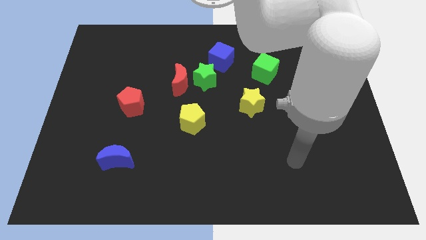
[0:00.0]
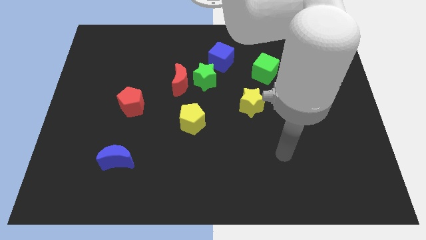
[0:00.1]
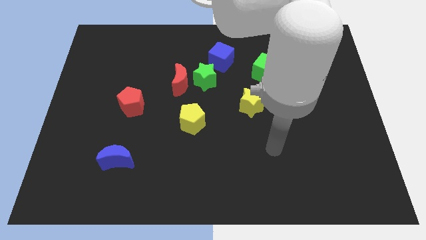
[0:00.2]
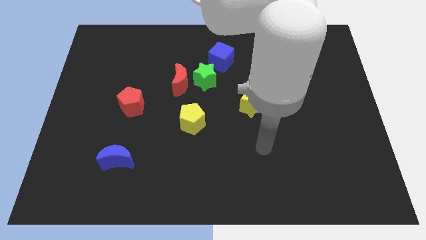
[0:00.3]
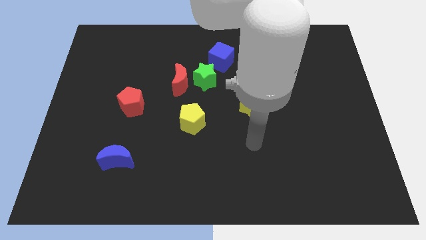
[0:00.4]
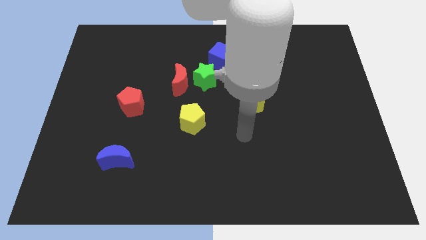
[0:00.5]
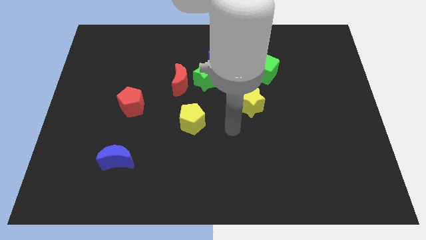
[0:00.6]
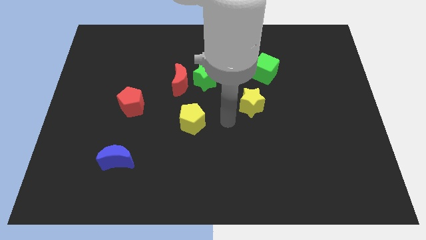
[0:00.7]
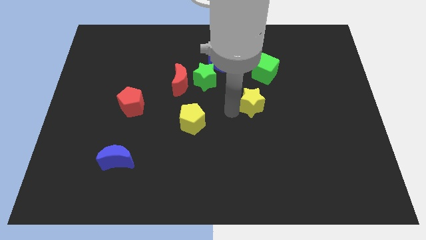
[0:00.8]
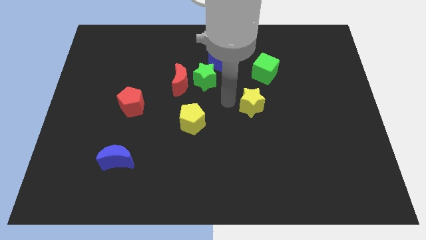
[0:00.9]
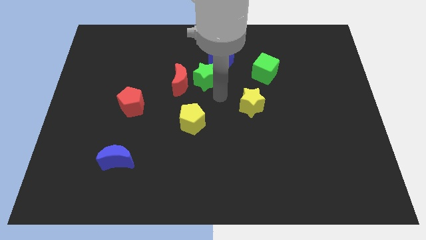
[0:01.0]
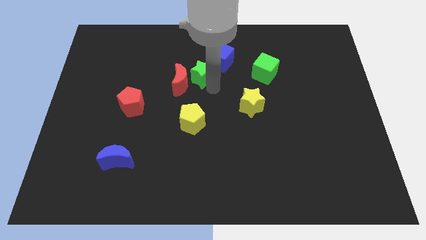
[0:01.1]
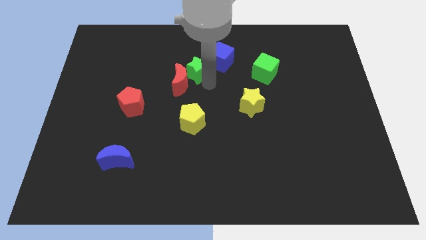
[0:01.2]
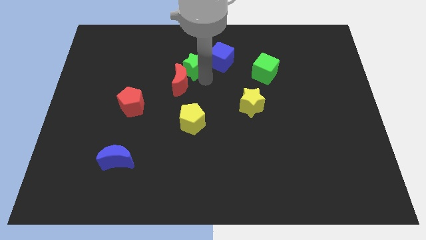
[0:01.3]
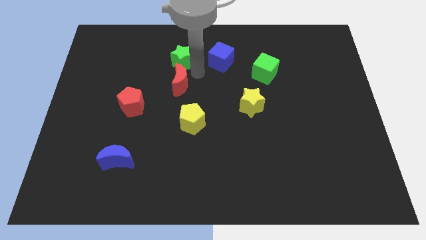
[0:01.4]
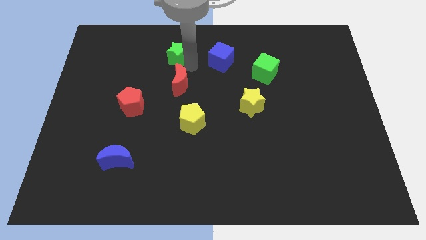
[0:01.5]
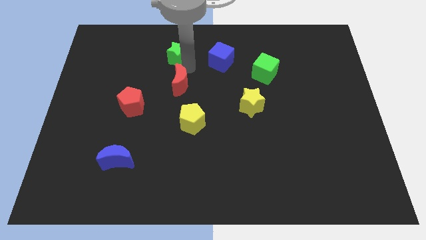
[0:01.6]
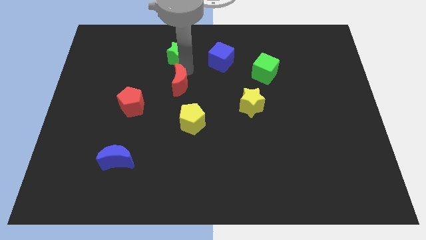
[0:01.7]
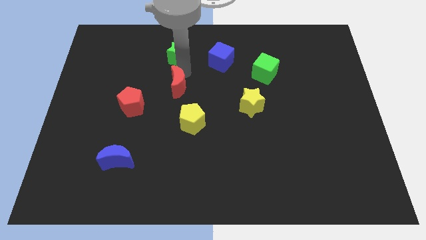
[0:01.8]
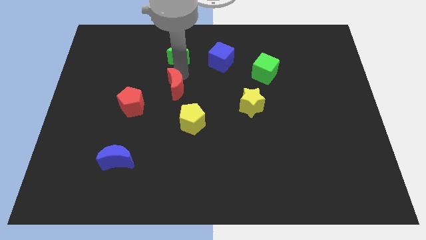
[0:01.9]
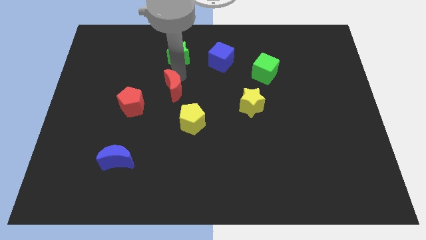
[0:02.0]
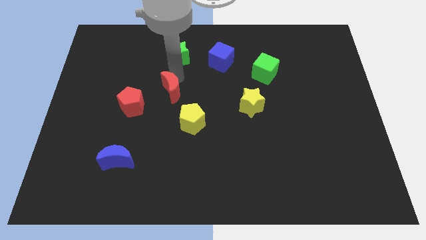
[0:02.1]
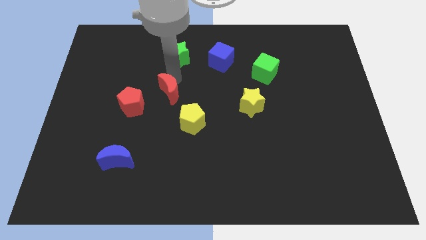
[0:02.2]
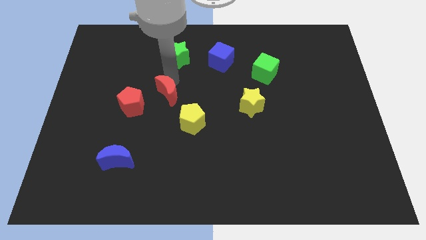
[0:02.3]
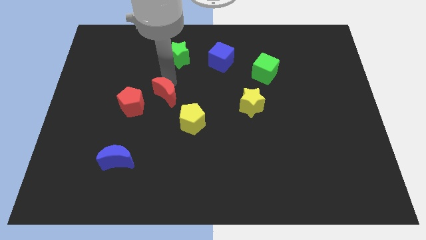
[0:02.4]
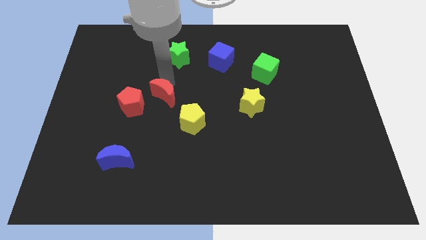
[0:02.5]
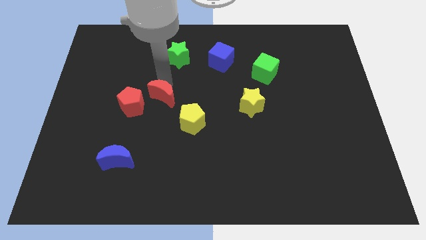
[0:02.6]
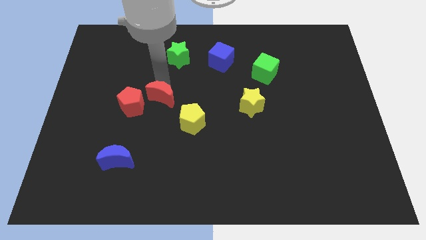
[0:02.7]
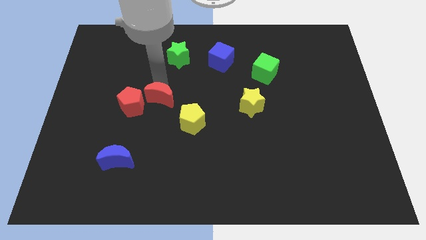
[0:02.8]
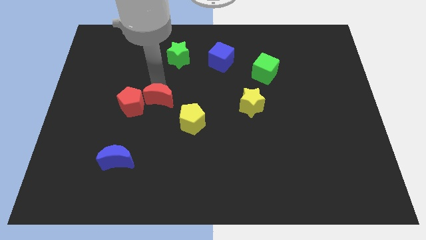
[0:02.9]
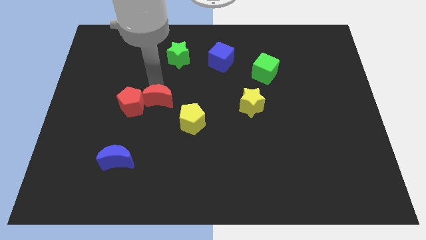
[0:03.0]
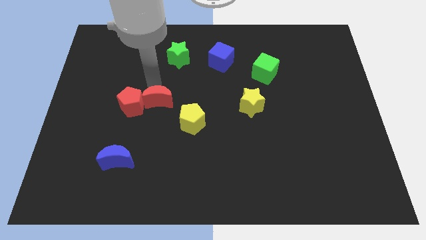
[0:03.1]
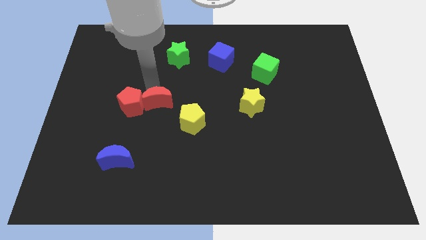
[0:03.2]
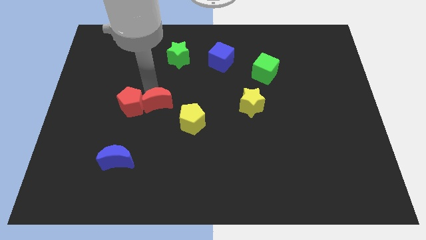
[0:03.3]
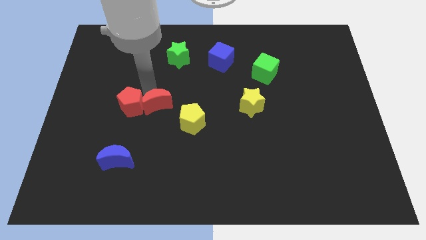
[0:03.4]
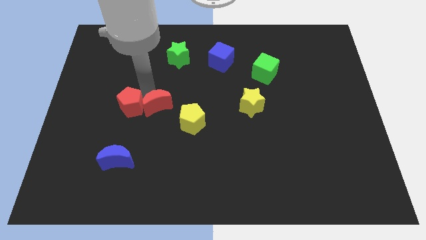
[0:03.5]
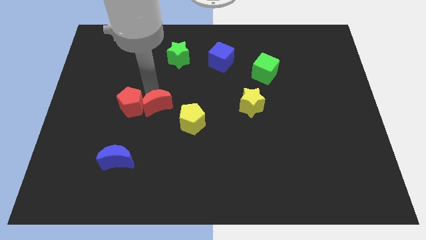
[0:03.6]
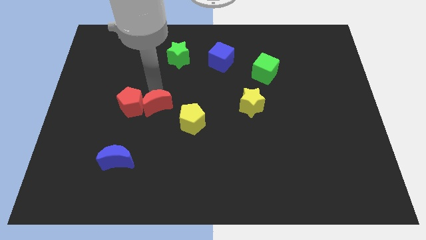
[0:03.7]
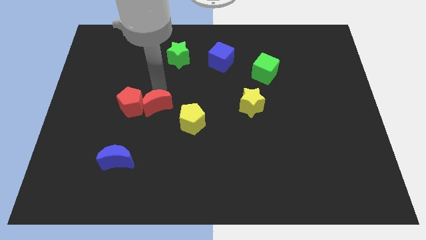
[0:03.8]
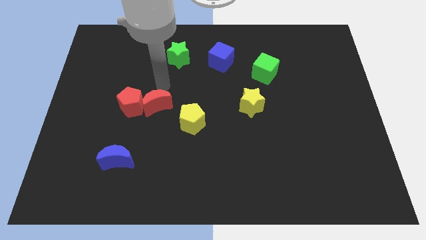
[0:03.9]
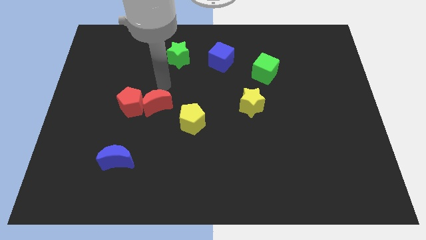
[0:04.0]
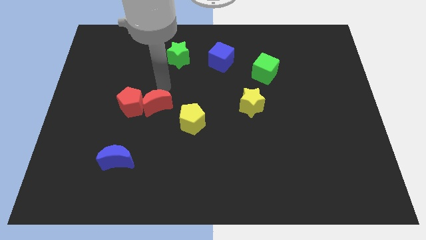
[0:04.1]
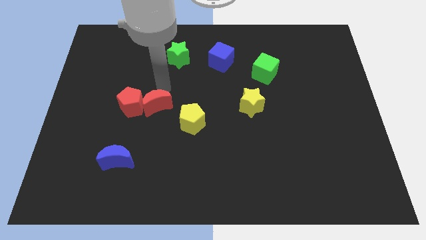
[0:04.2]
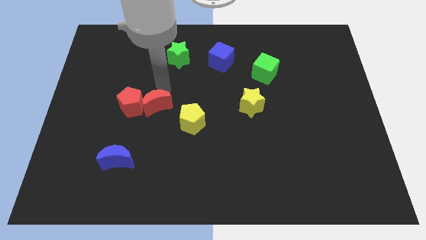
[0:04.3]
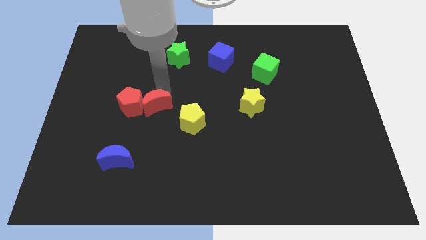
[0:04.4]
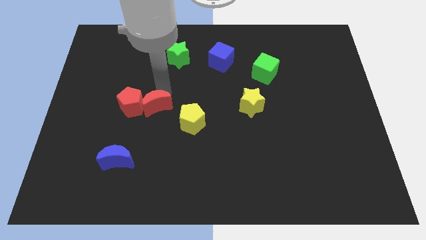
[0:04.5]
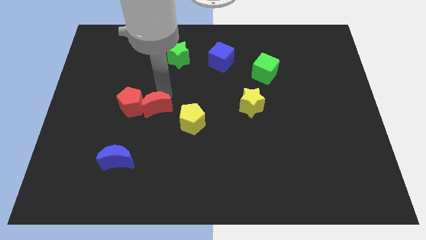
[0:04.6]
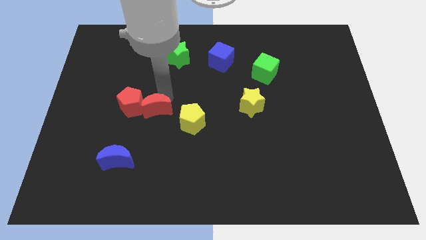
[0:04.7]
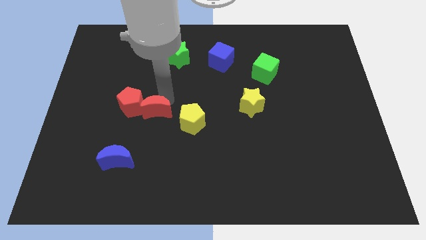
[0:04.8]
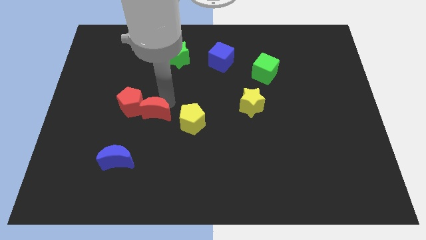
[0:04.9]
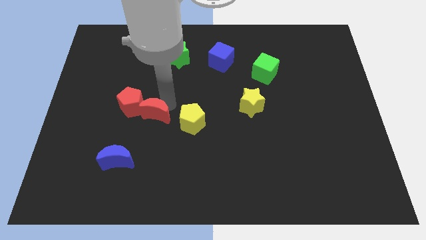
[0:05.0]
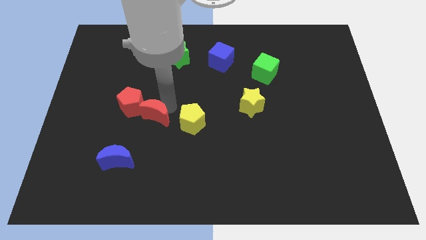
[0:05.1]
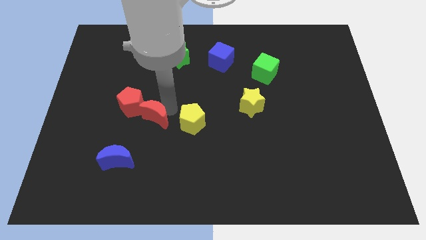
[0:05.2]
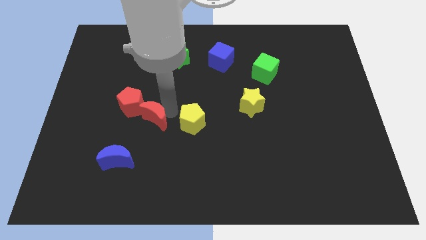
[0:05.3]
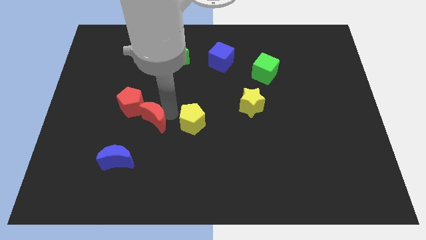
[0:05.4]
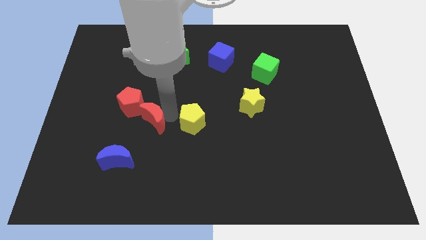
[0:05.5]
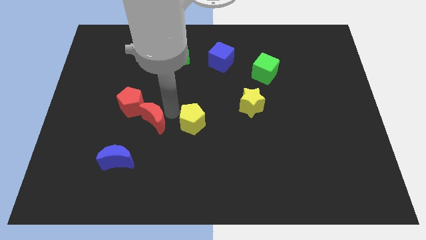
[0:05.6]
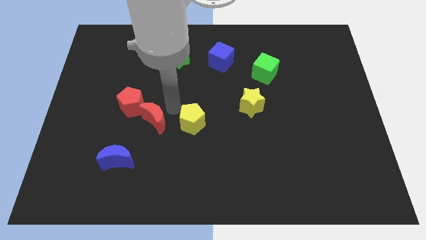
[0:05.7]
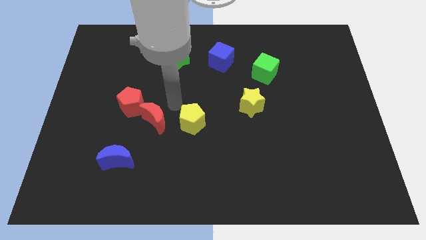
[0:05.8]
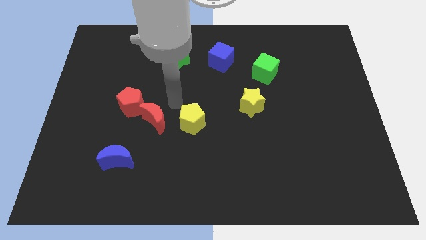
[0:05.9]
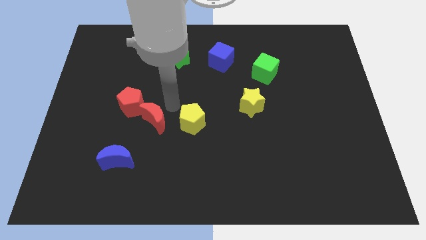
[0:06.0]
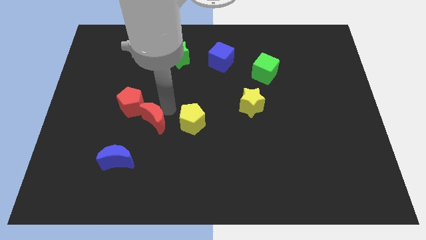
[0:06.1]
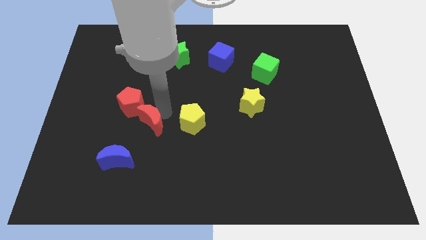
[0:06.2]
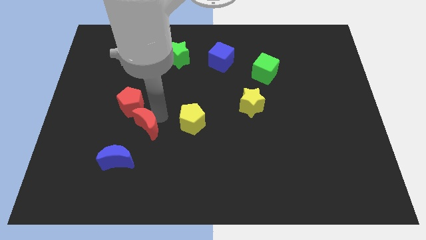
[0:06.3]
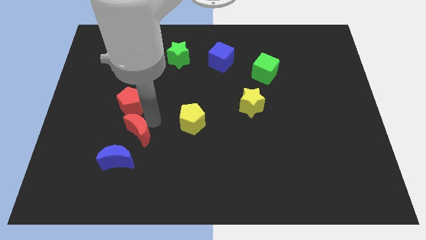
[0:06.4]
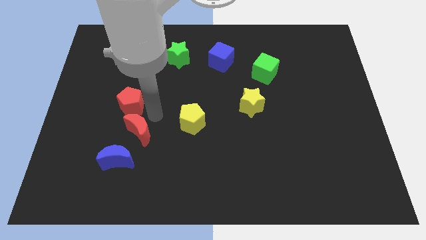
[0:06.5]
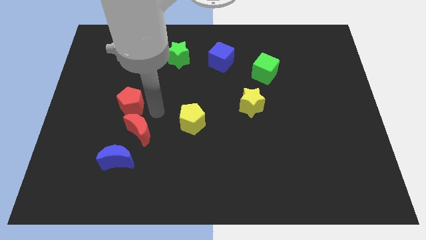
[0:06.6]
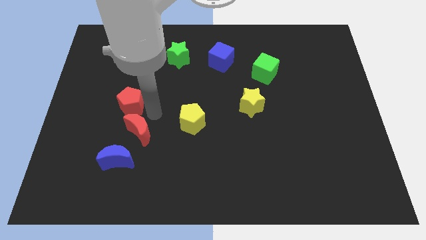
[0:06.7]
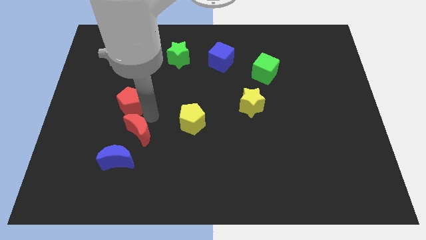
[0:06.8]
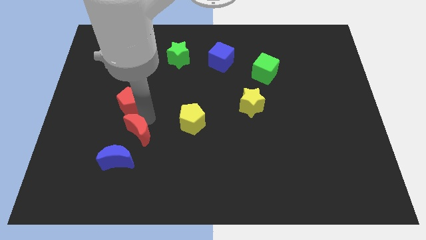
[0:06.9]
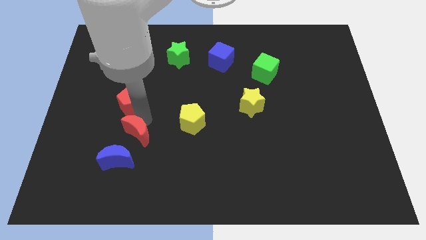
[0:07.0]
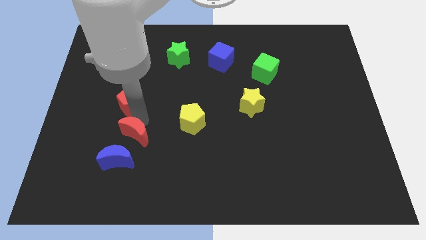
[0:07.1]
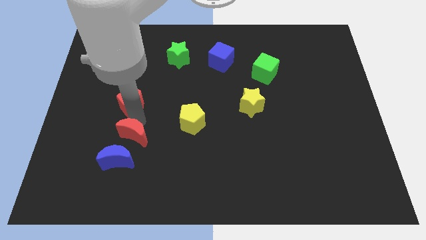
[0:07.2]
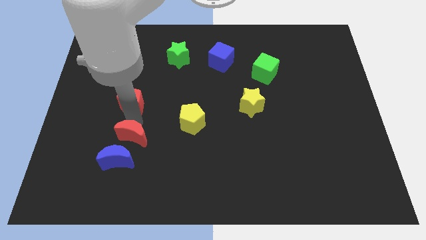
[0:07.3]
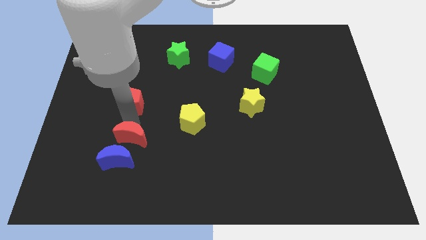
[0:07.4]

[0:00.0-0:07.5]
slide the red moon next to the blue moon
